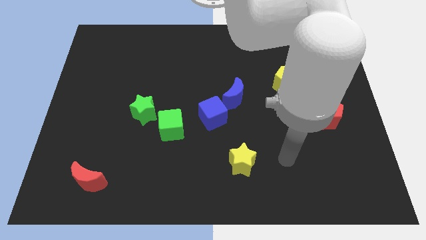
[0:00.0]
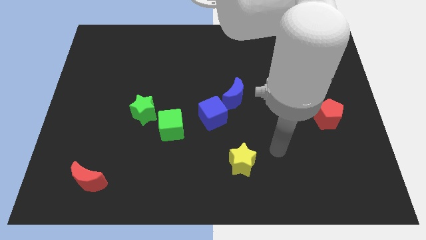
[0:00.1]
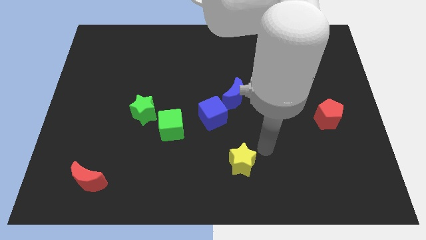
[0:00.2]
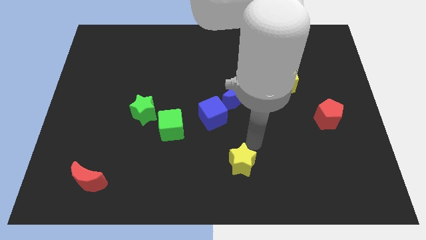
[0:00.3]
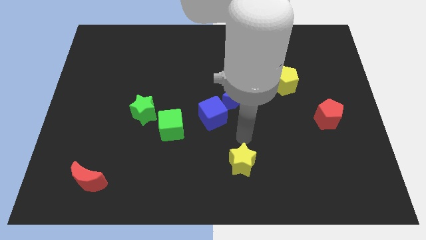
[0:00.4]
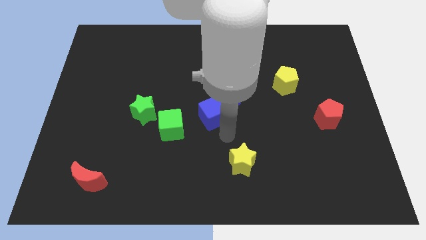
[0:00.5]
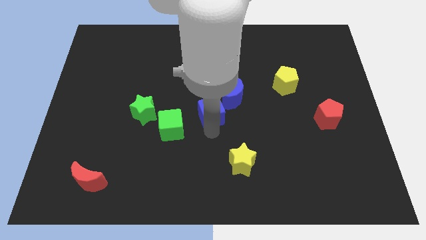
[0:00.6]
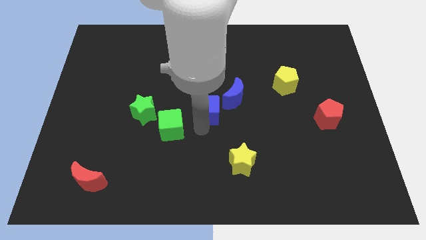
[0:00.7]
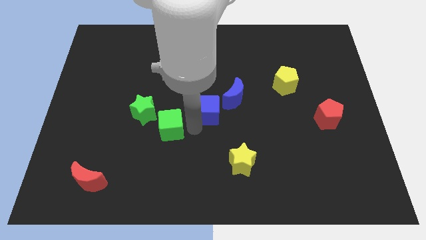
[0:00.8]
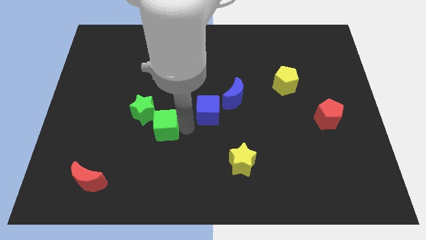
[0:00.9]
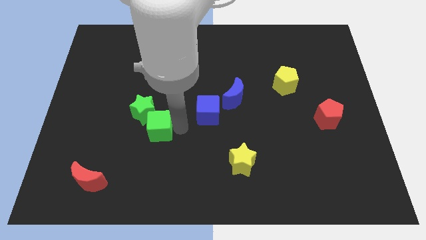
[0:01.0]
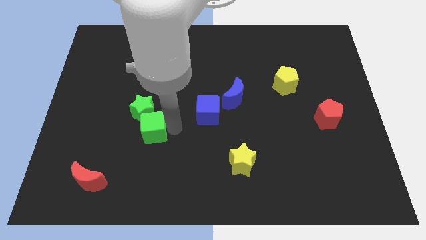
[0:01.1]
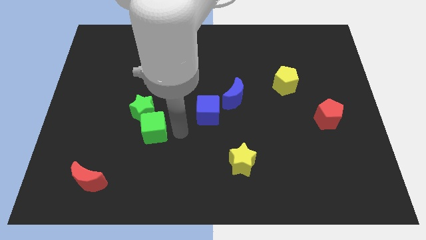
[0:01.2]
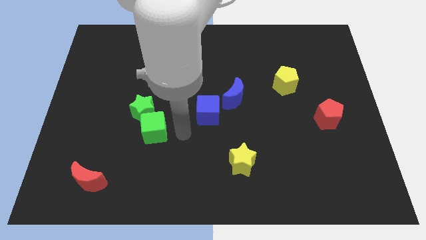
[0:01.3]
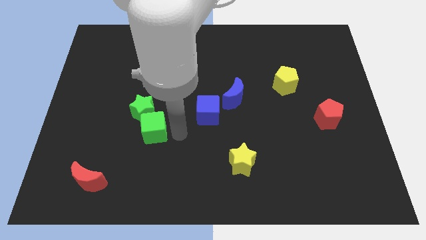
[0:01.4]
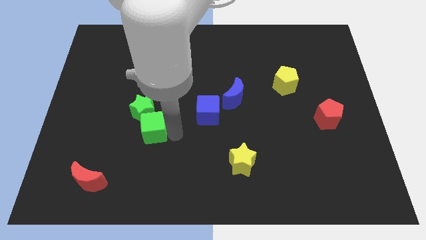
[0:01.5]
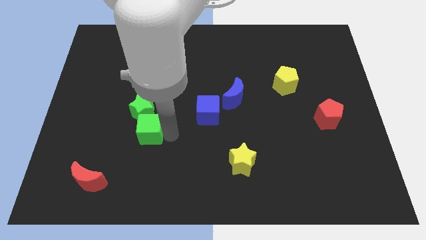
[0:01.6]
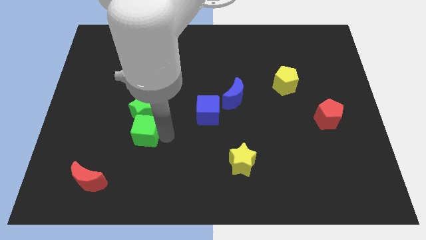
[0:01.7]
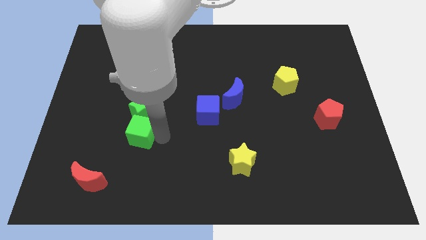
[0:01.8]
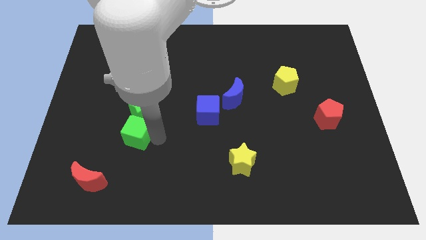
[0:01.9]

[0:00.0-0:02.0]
slightly move the green cube left

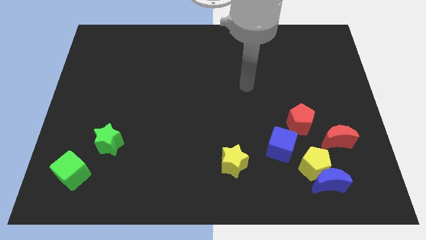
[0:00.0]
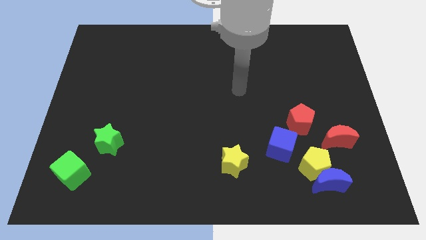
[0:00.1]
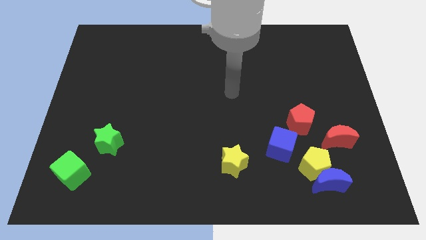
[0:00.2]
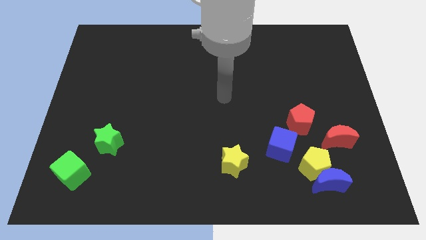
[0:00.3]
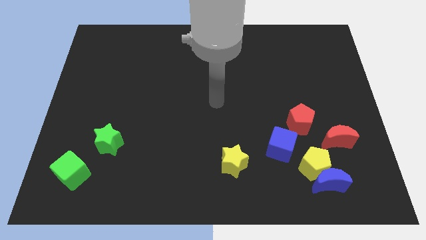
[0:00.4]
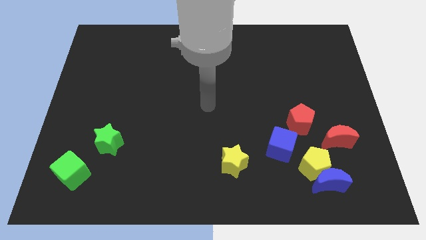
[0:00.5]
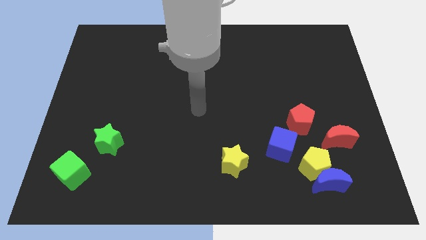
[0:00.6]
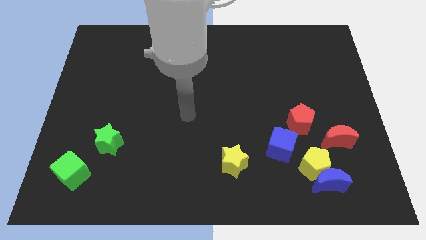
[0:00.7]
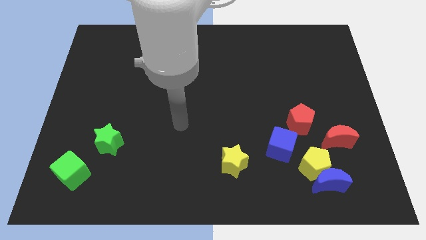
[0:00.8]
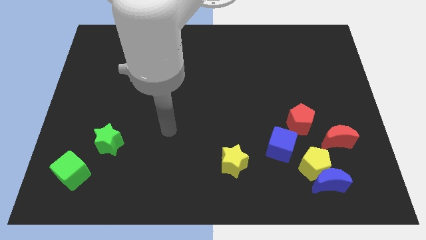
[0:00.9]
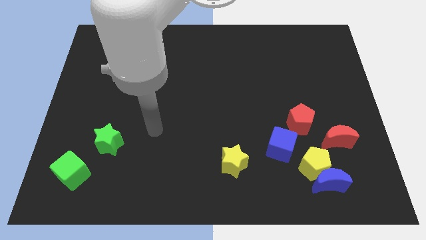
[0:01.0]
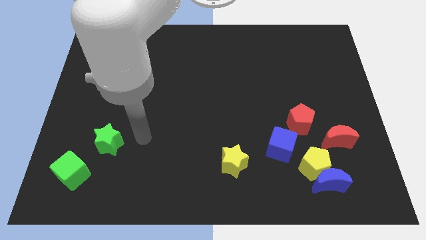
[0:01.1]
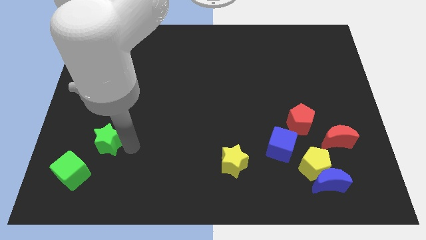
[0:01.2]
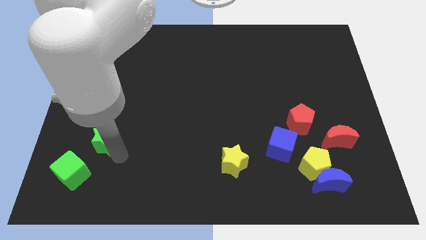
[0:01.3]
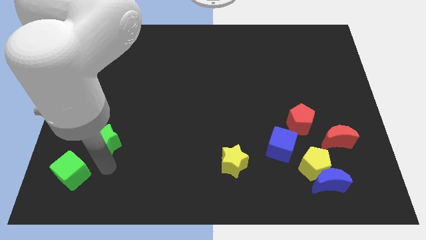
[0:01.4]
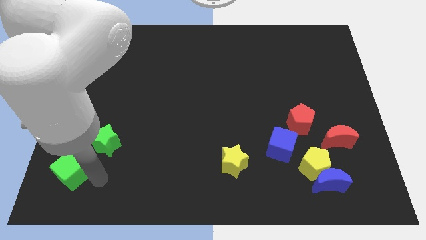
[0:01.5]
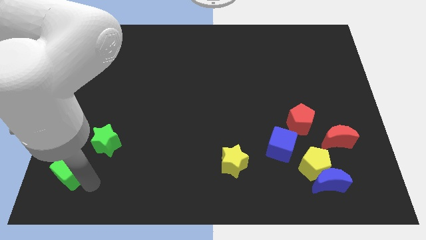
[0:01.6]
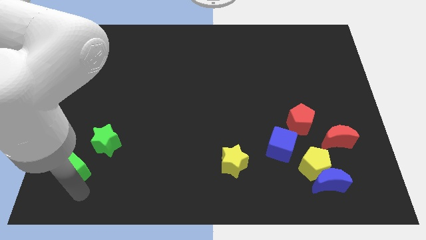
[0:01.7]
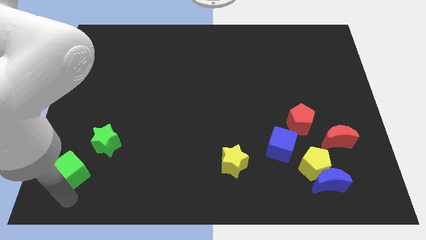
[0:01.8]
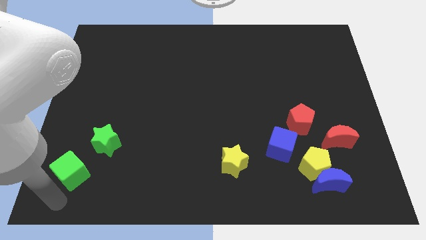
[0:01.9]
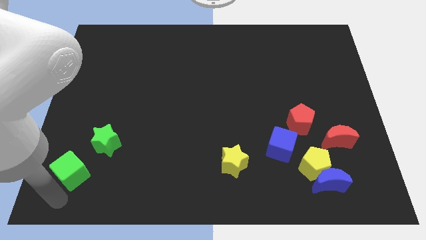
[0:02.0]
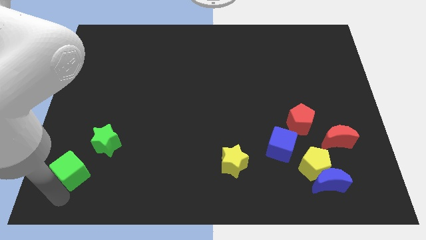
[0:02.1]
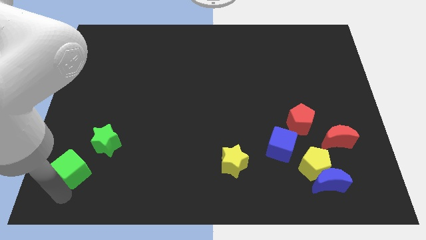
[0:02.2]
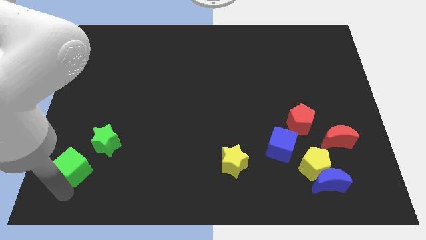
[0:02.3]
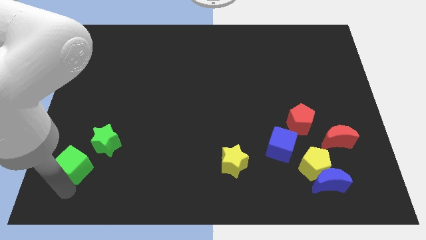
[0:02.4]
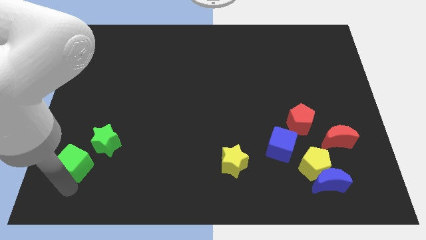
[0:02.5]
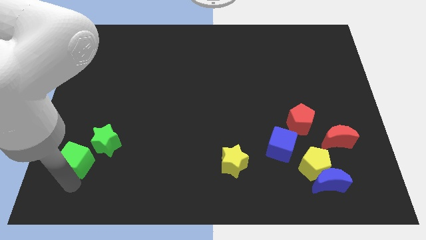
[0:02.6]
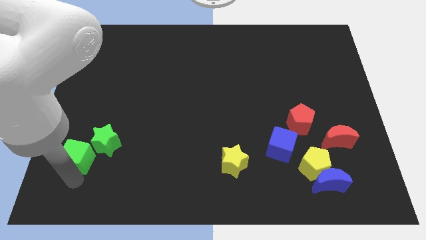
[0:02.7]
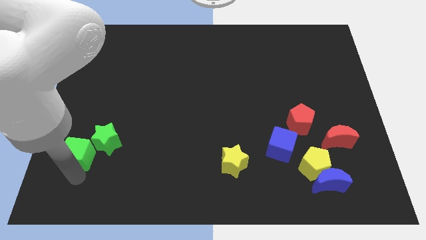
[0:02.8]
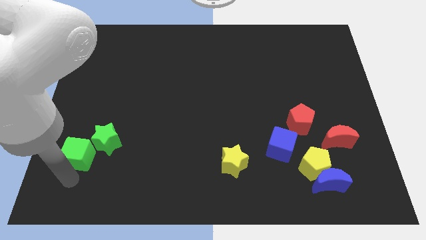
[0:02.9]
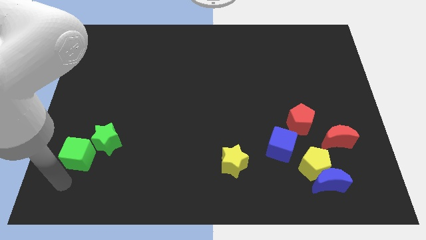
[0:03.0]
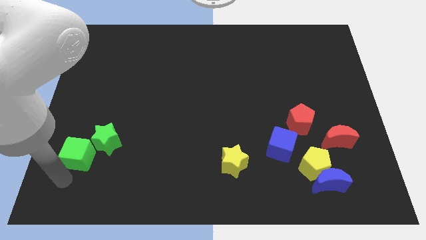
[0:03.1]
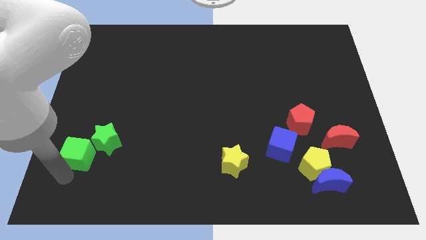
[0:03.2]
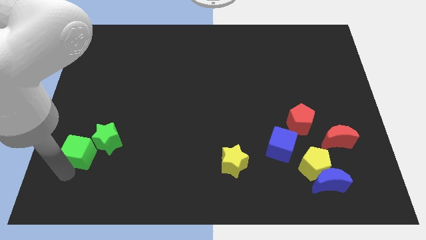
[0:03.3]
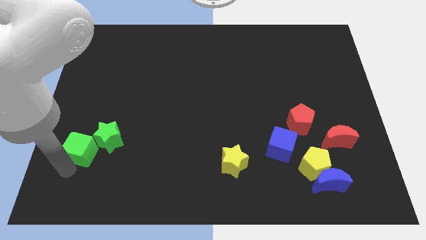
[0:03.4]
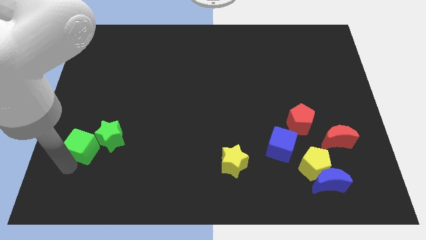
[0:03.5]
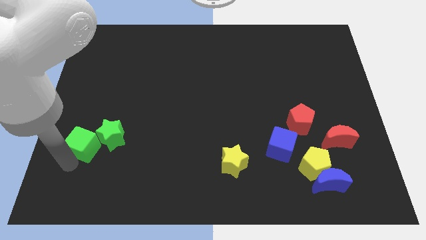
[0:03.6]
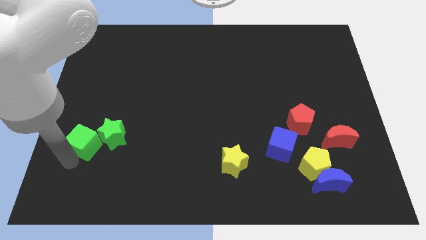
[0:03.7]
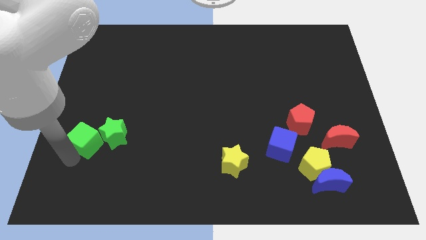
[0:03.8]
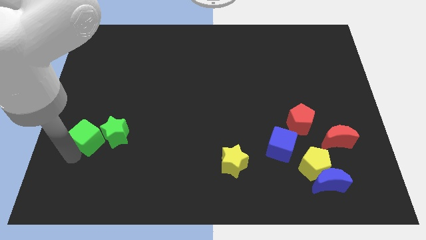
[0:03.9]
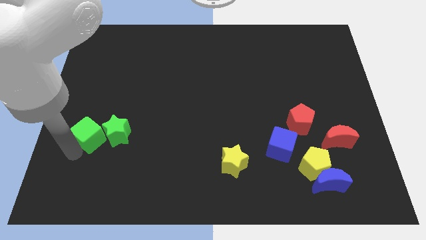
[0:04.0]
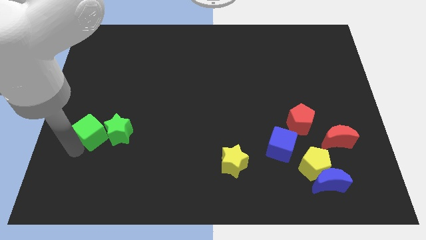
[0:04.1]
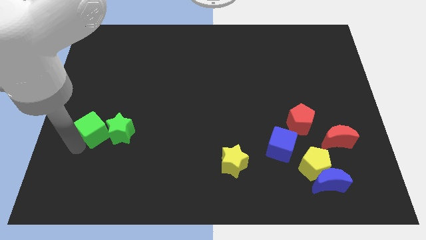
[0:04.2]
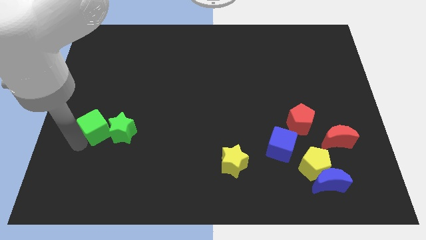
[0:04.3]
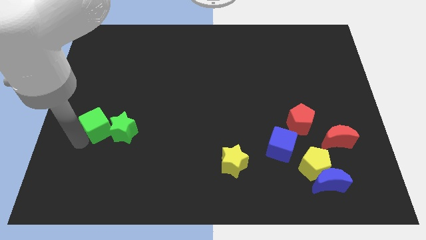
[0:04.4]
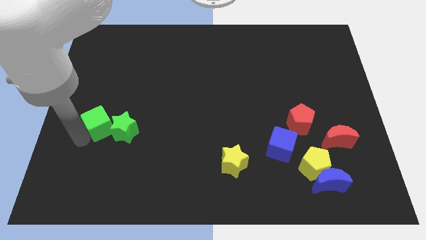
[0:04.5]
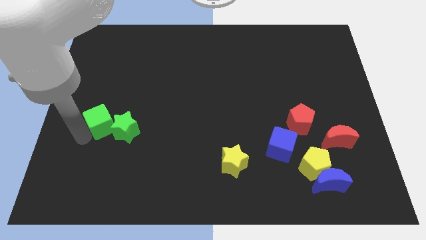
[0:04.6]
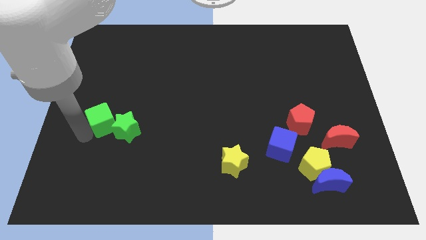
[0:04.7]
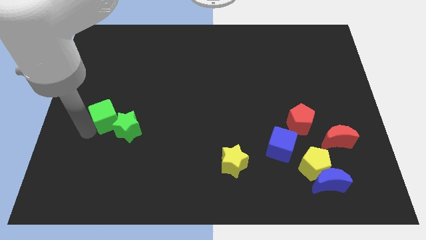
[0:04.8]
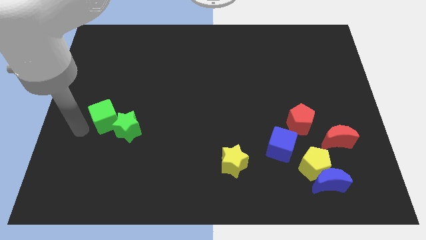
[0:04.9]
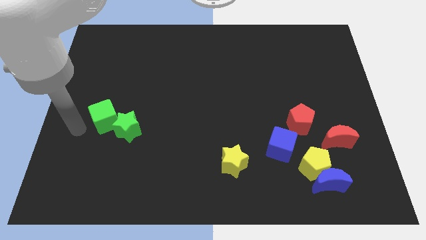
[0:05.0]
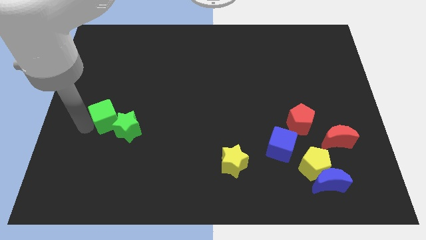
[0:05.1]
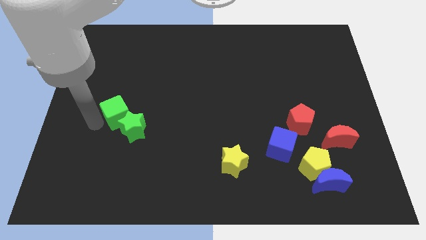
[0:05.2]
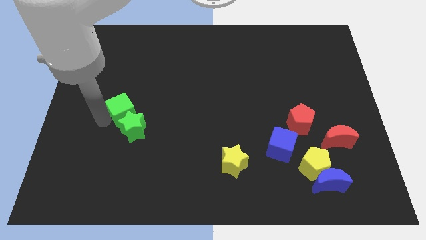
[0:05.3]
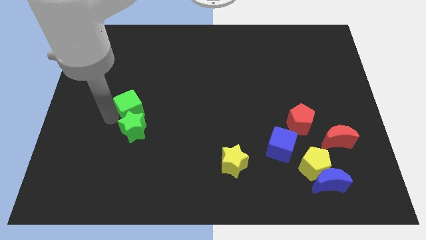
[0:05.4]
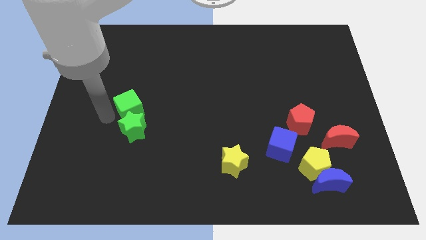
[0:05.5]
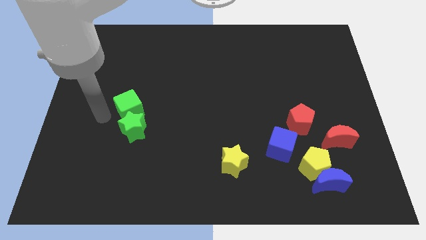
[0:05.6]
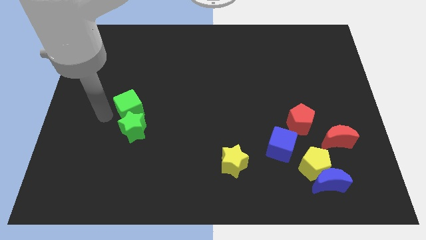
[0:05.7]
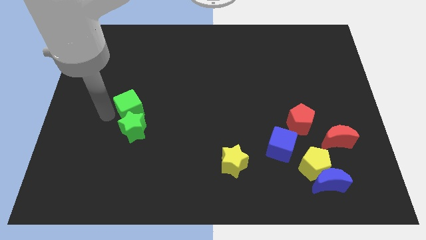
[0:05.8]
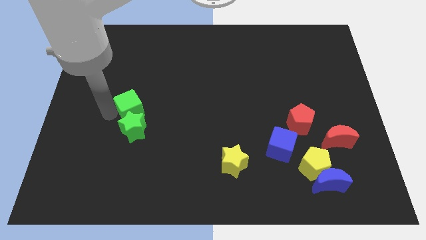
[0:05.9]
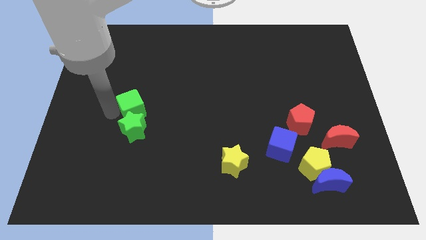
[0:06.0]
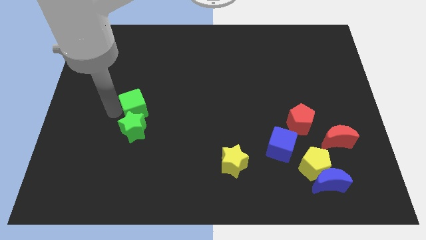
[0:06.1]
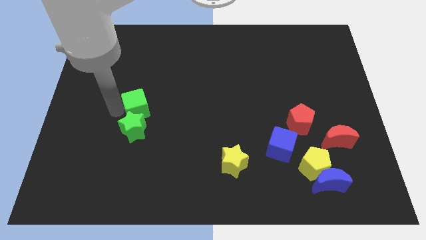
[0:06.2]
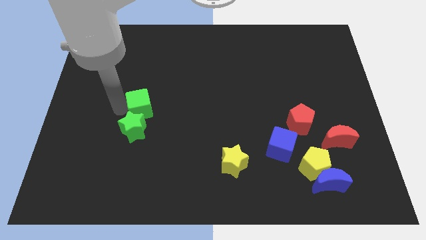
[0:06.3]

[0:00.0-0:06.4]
push the green cube up and to the right diagonally
